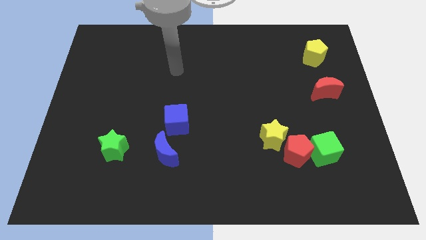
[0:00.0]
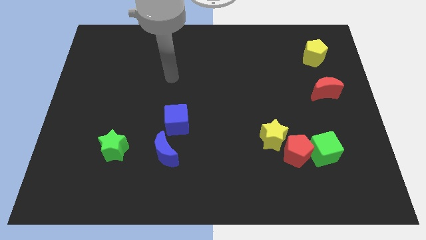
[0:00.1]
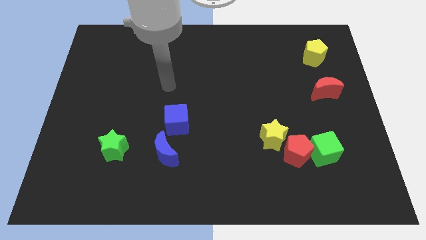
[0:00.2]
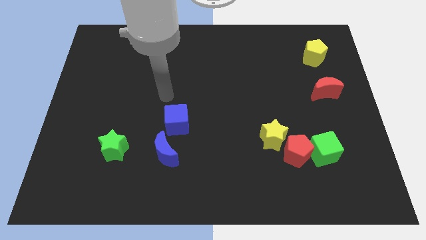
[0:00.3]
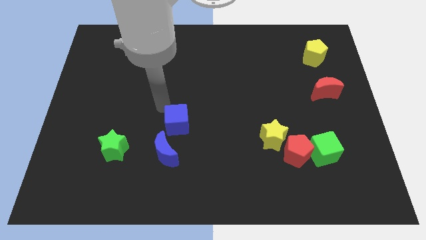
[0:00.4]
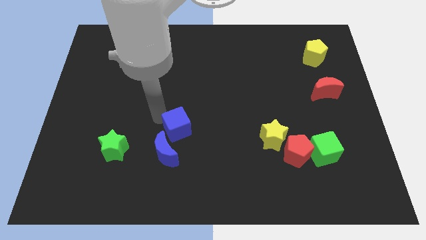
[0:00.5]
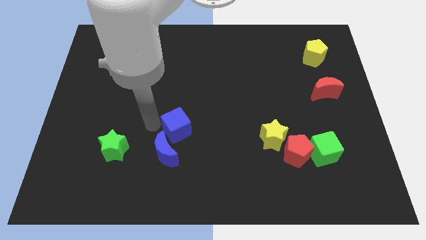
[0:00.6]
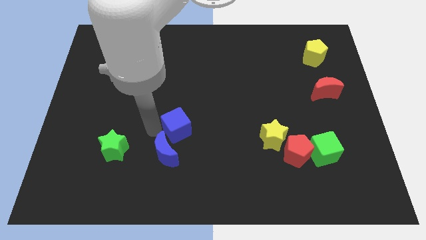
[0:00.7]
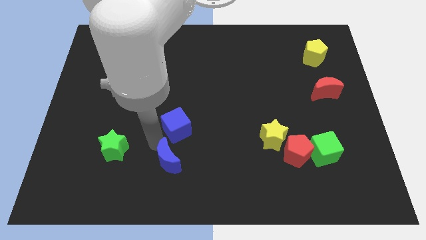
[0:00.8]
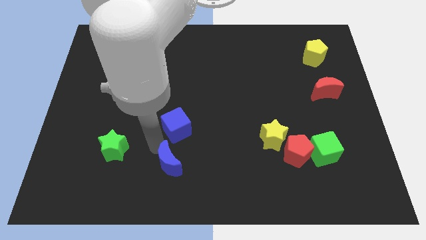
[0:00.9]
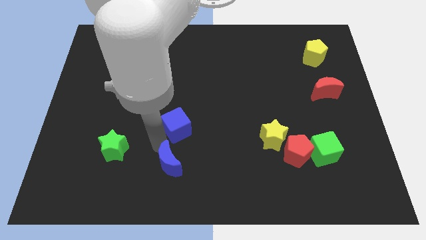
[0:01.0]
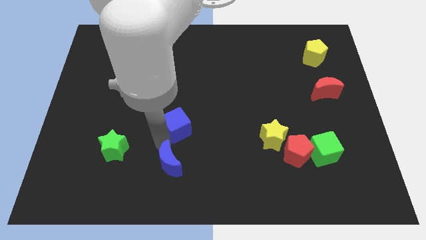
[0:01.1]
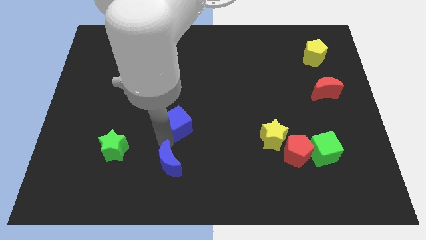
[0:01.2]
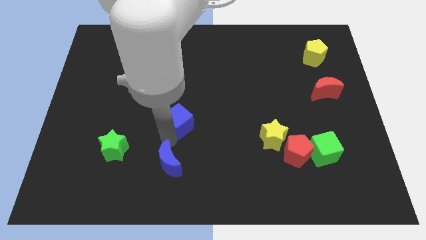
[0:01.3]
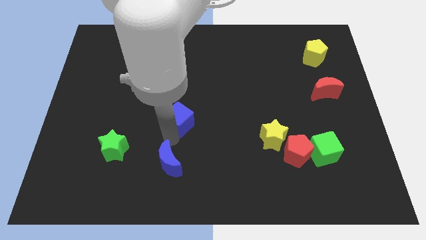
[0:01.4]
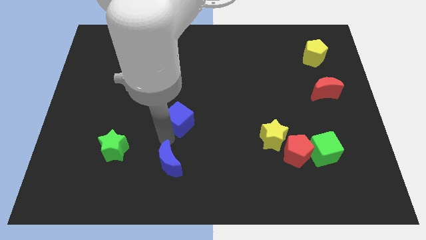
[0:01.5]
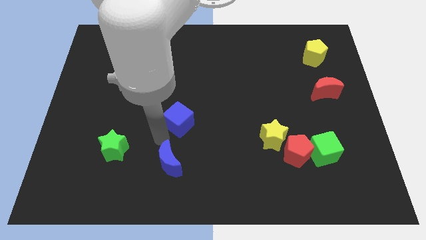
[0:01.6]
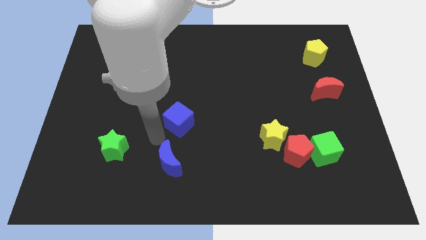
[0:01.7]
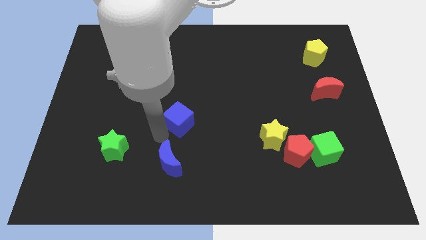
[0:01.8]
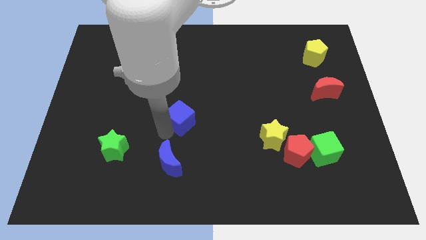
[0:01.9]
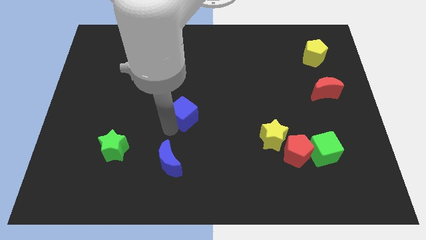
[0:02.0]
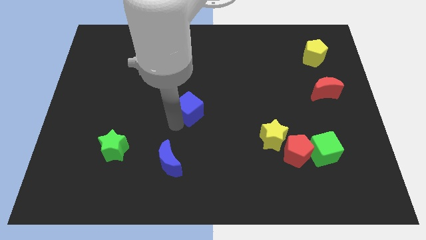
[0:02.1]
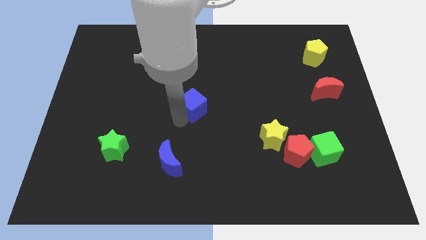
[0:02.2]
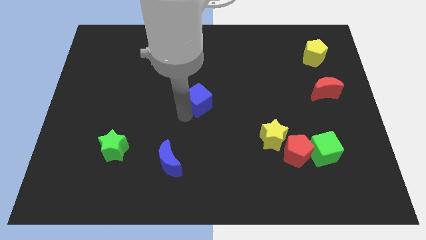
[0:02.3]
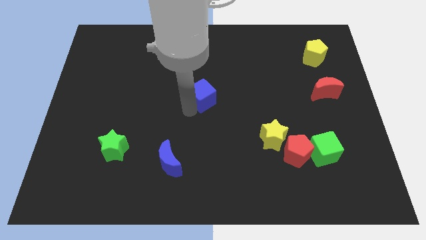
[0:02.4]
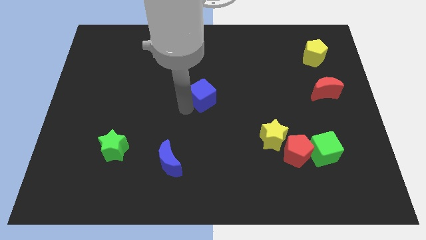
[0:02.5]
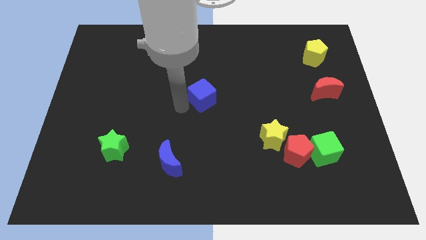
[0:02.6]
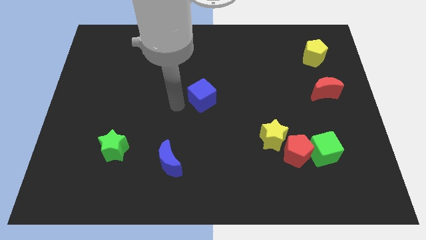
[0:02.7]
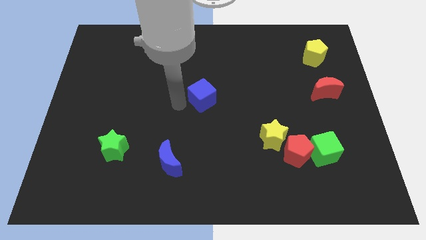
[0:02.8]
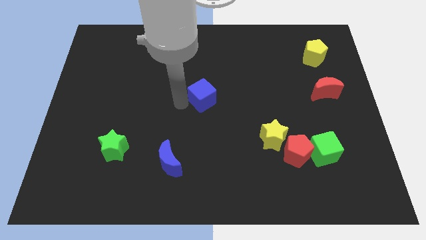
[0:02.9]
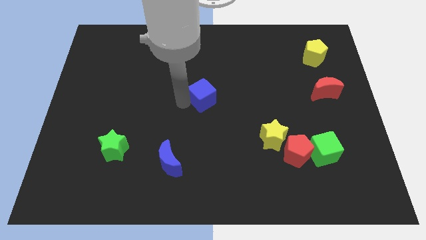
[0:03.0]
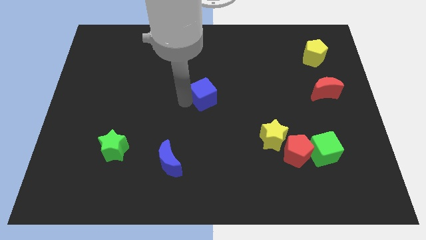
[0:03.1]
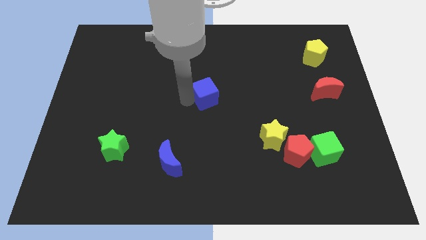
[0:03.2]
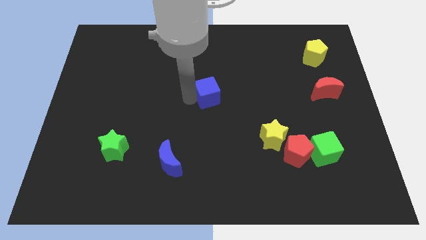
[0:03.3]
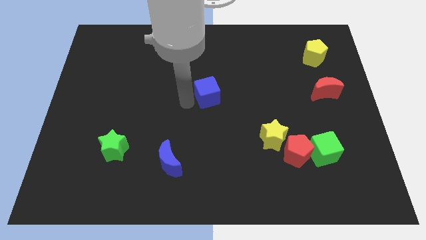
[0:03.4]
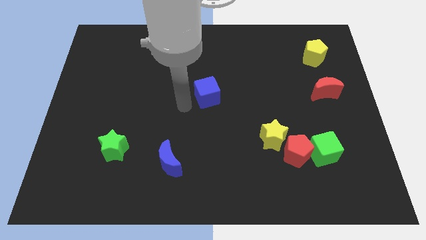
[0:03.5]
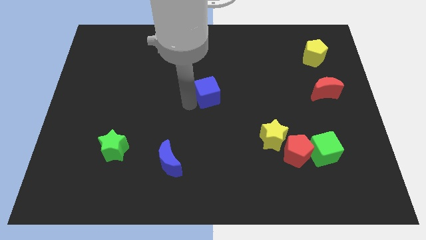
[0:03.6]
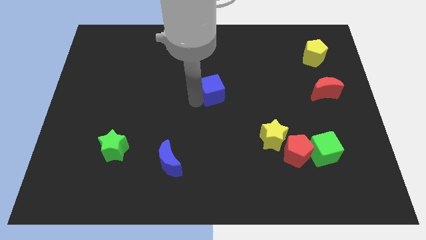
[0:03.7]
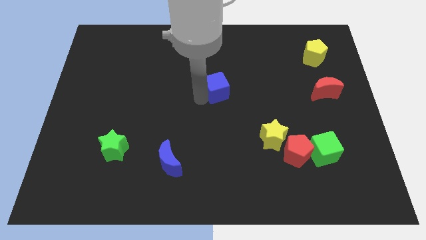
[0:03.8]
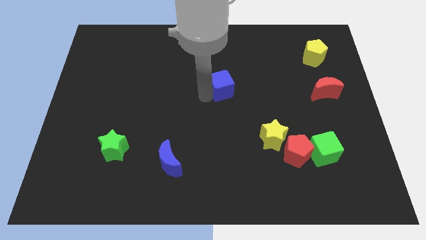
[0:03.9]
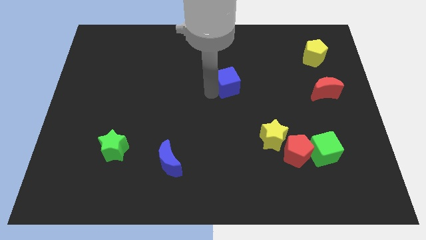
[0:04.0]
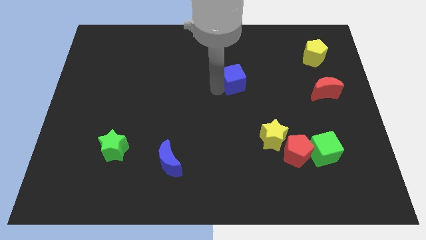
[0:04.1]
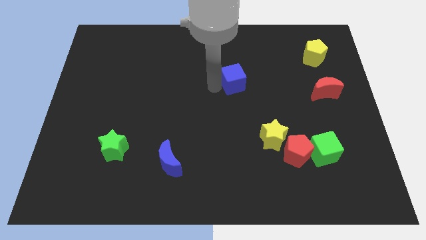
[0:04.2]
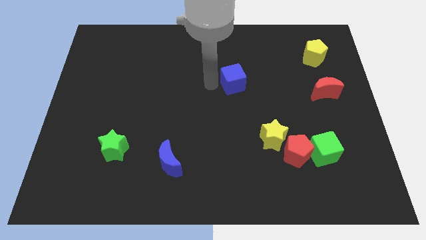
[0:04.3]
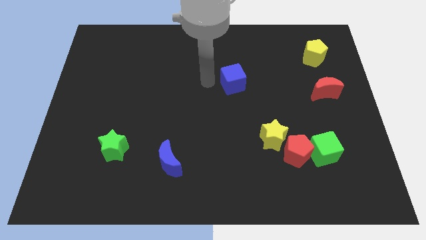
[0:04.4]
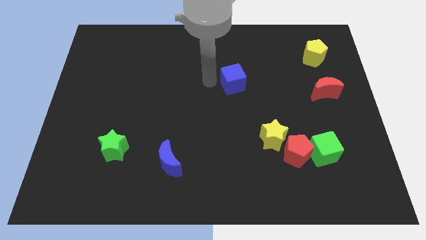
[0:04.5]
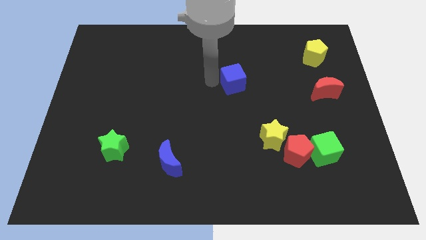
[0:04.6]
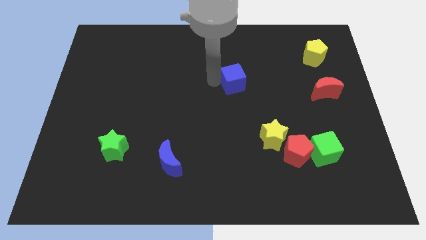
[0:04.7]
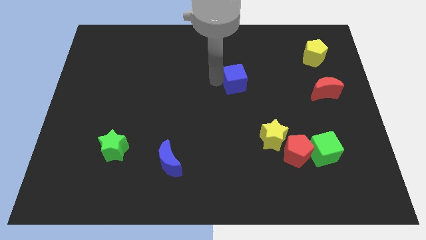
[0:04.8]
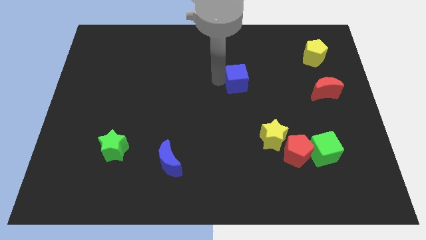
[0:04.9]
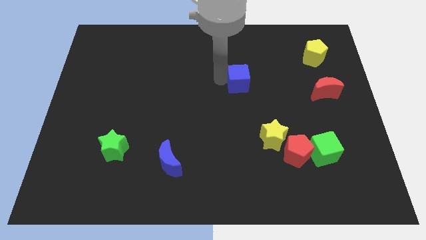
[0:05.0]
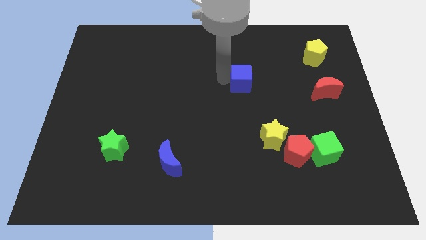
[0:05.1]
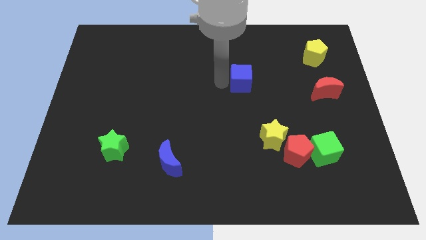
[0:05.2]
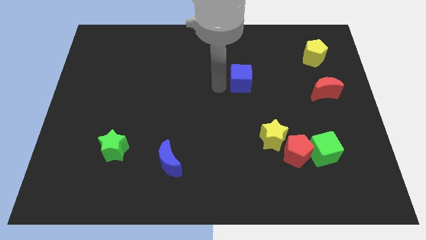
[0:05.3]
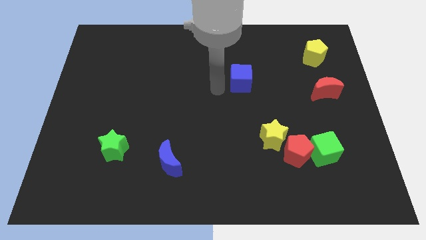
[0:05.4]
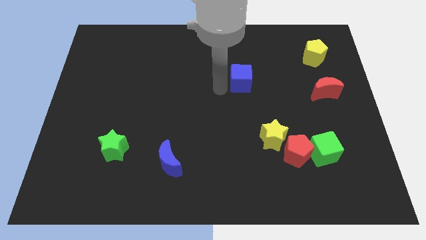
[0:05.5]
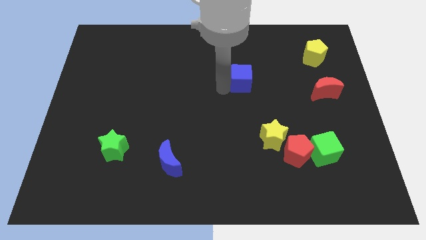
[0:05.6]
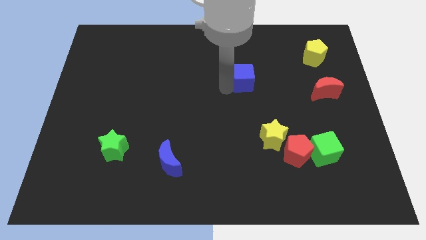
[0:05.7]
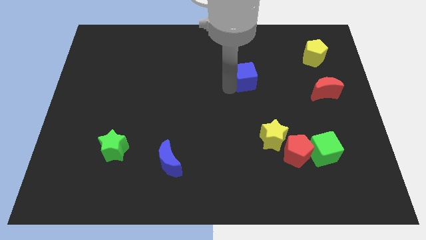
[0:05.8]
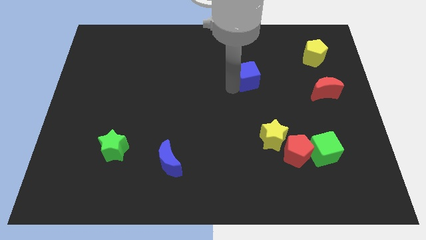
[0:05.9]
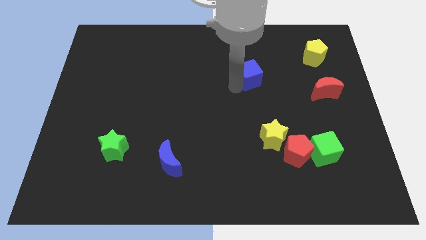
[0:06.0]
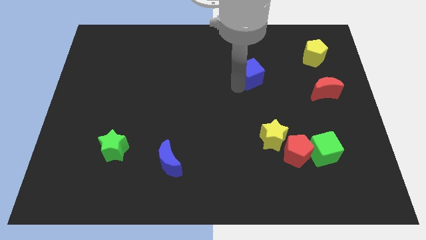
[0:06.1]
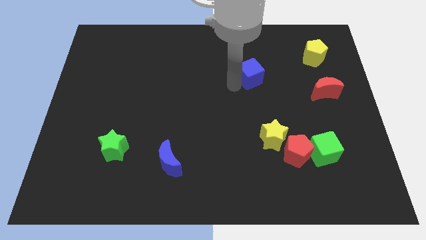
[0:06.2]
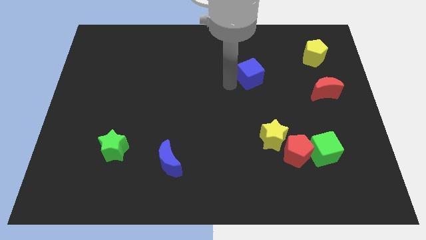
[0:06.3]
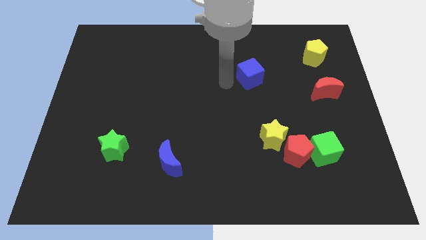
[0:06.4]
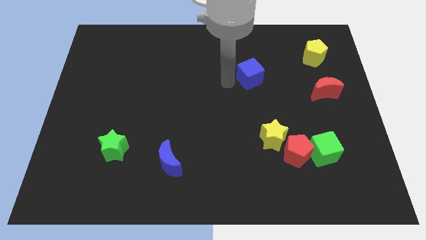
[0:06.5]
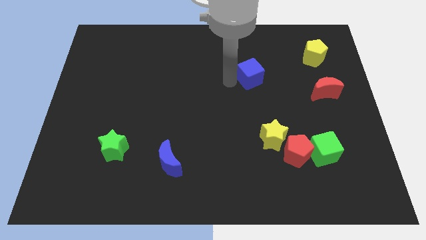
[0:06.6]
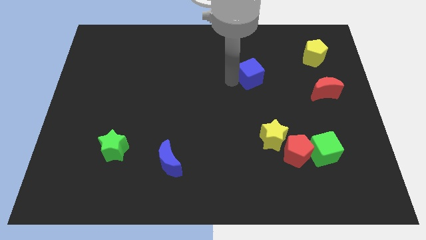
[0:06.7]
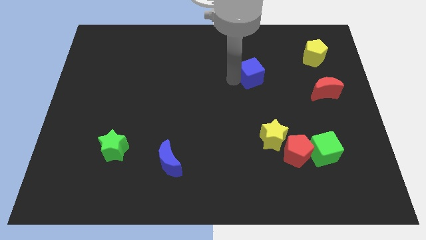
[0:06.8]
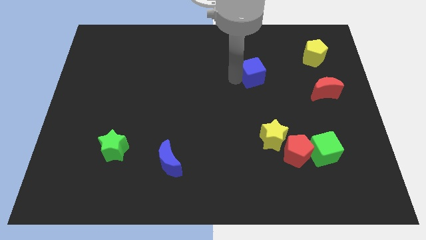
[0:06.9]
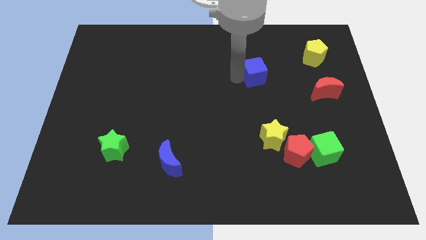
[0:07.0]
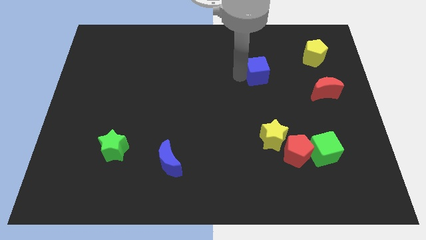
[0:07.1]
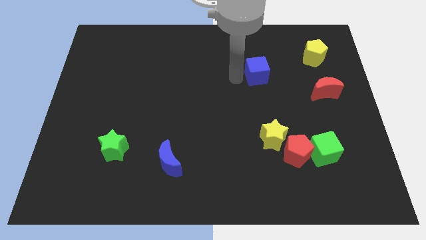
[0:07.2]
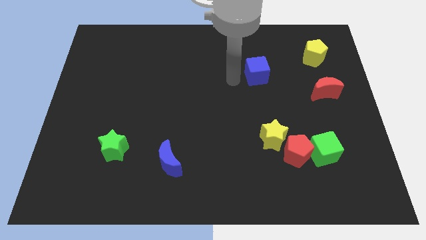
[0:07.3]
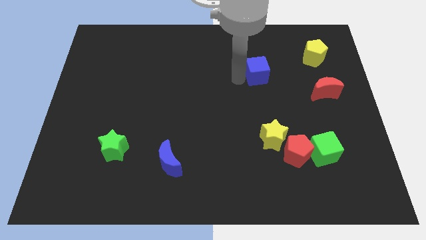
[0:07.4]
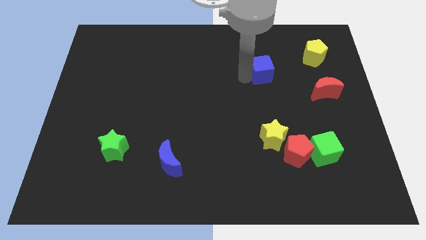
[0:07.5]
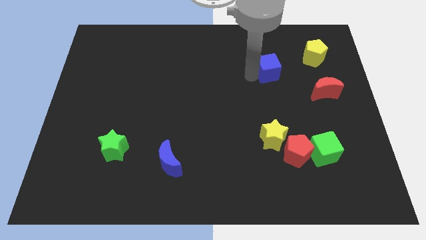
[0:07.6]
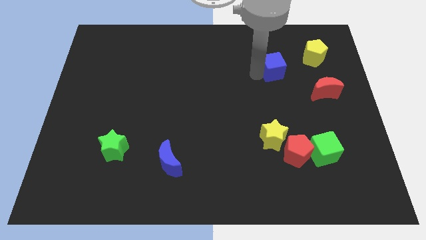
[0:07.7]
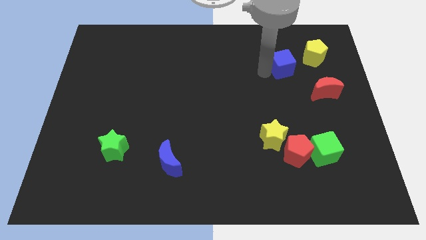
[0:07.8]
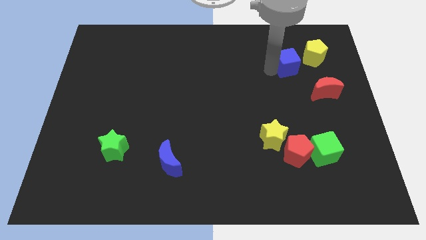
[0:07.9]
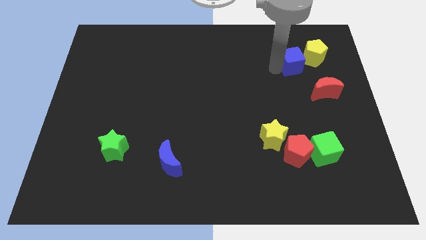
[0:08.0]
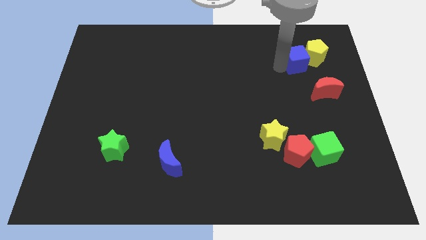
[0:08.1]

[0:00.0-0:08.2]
push the blue cube next to the yellow pentagon
